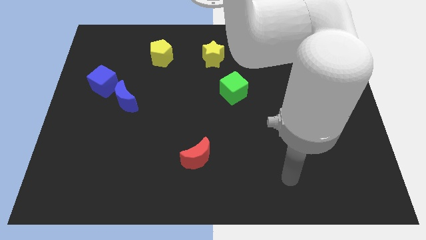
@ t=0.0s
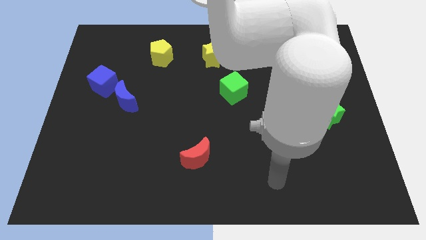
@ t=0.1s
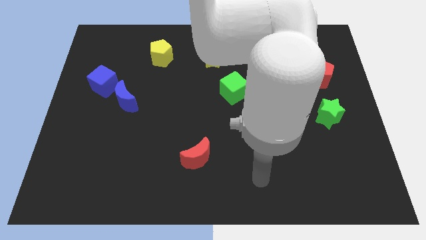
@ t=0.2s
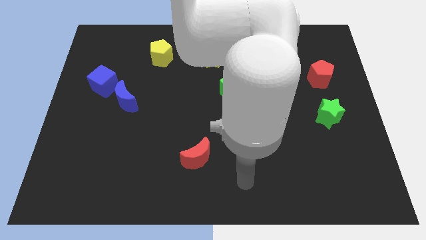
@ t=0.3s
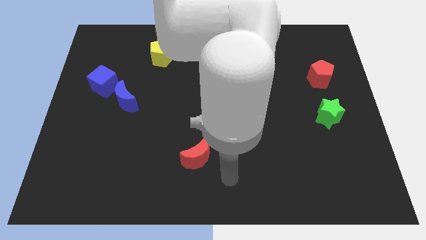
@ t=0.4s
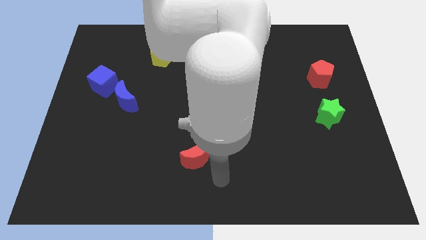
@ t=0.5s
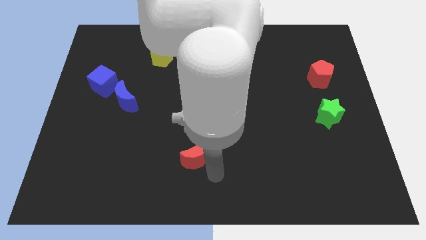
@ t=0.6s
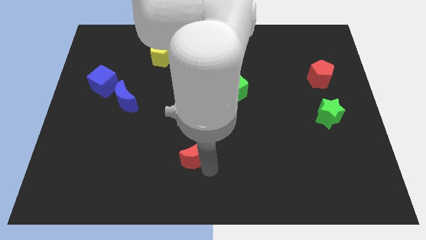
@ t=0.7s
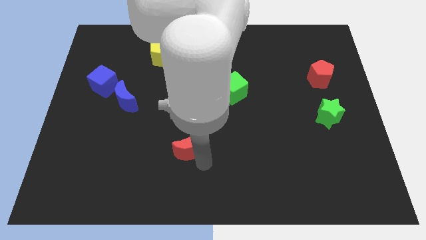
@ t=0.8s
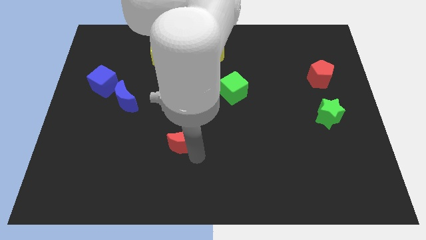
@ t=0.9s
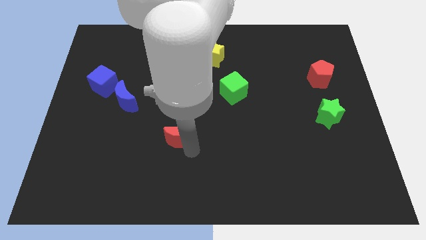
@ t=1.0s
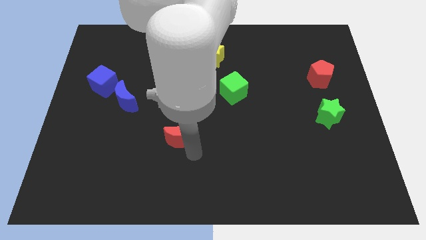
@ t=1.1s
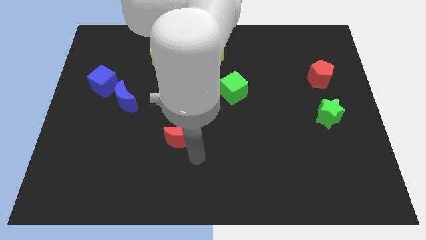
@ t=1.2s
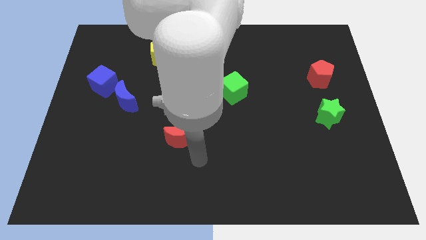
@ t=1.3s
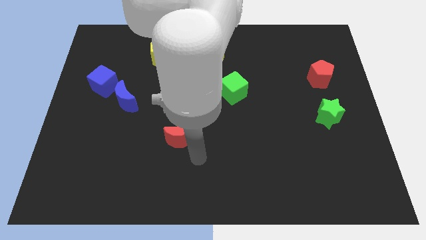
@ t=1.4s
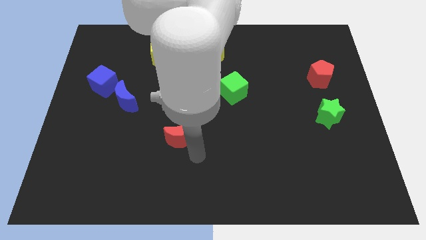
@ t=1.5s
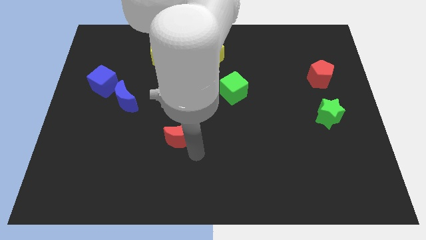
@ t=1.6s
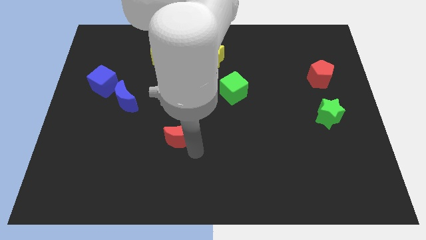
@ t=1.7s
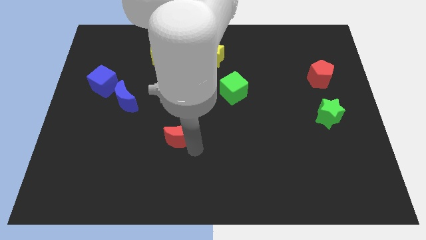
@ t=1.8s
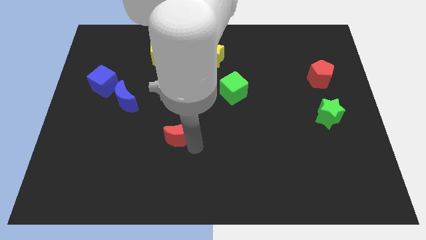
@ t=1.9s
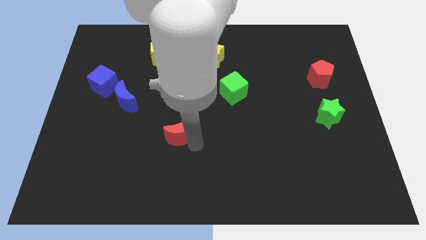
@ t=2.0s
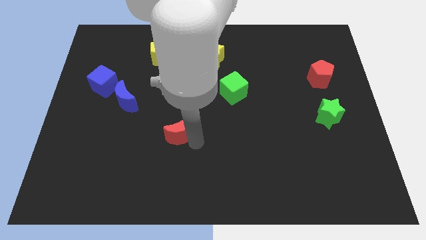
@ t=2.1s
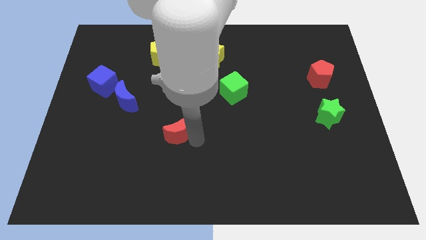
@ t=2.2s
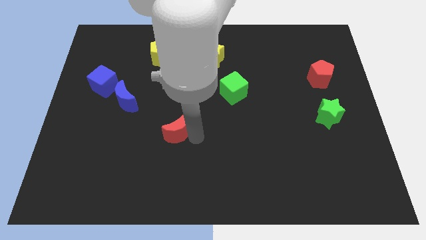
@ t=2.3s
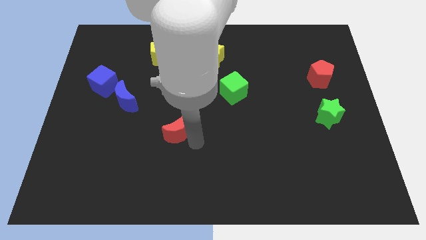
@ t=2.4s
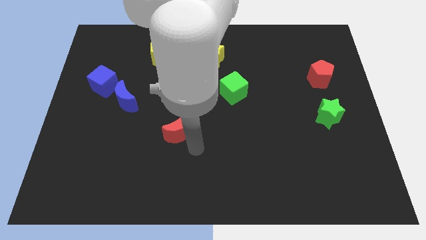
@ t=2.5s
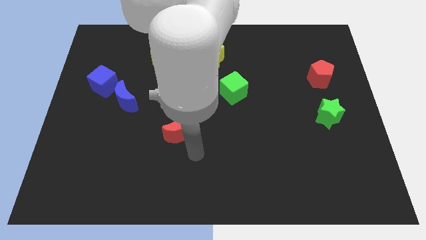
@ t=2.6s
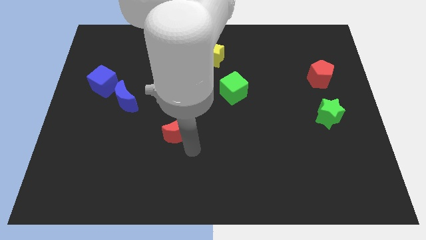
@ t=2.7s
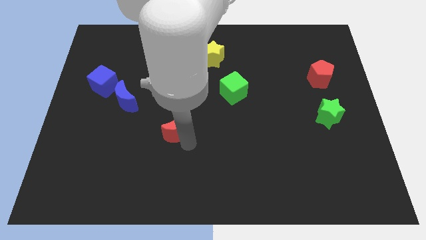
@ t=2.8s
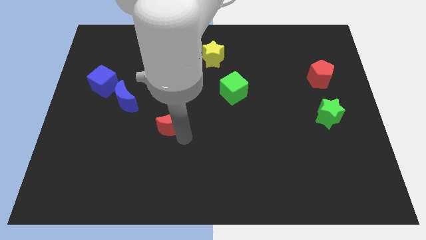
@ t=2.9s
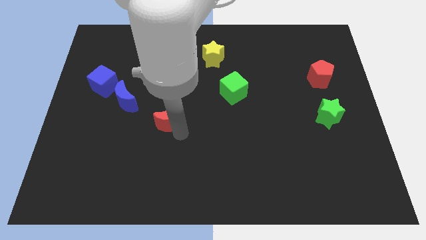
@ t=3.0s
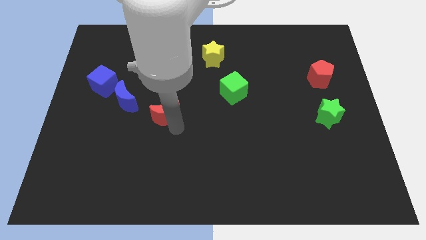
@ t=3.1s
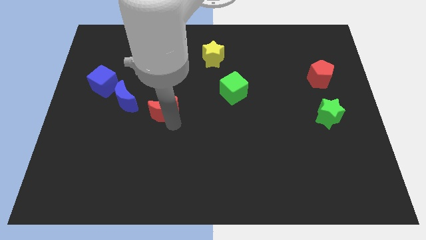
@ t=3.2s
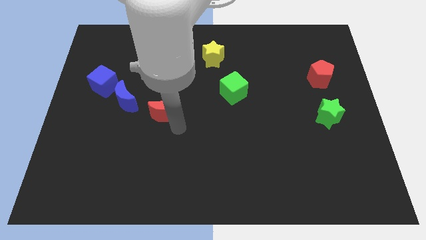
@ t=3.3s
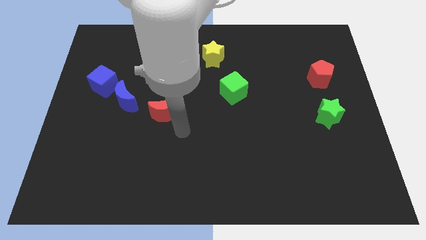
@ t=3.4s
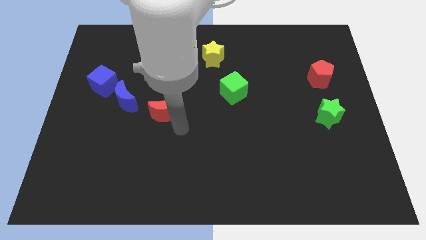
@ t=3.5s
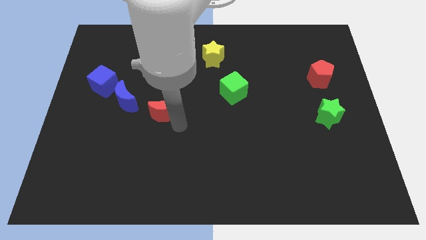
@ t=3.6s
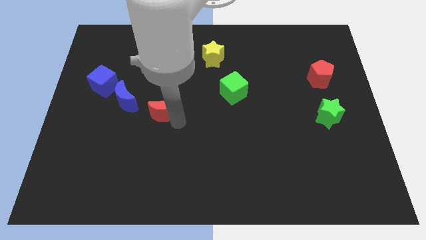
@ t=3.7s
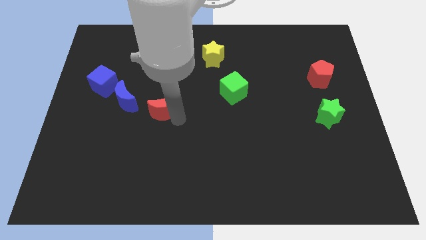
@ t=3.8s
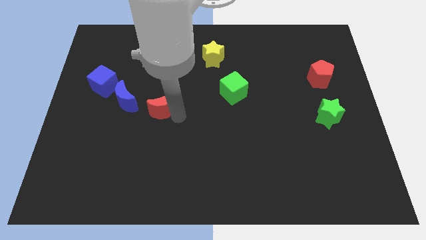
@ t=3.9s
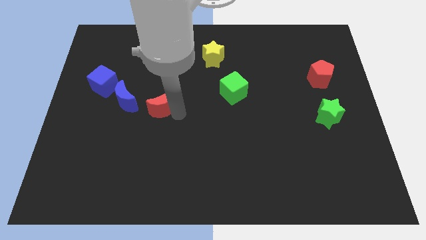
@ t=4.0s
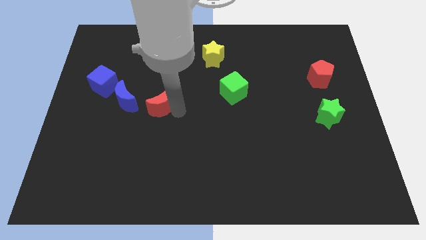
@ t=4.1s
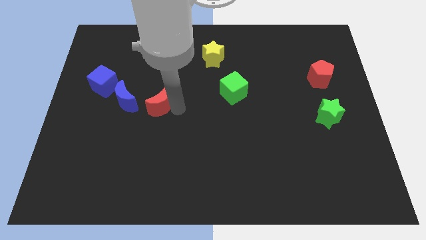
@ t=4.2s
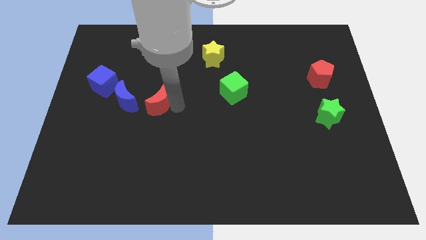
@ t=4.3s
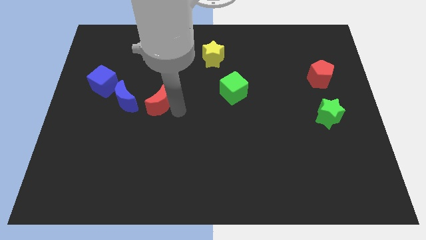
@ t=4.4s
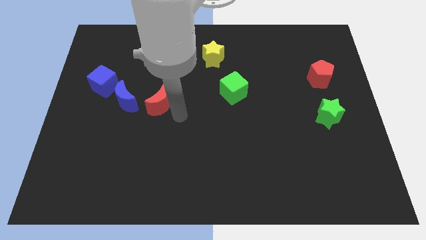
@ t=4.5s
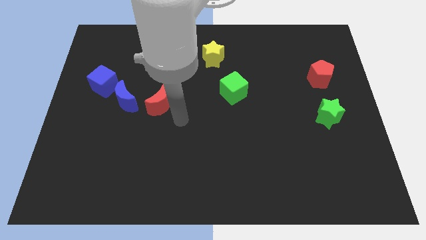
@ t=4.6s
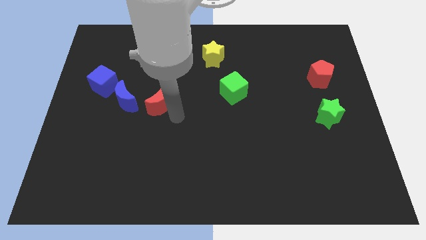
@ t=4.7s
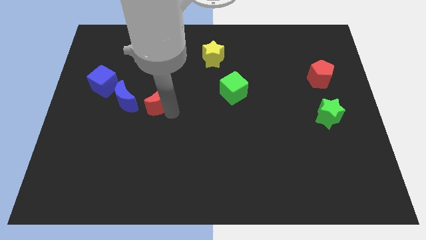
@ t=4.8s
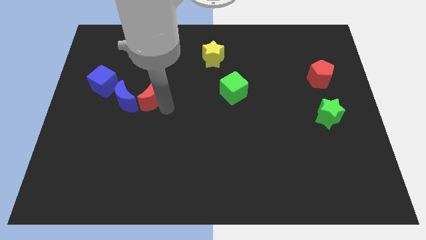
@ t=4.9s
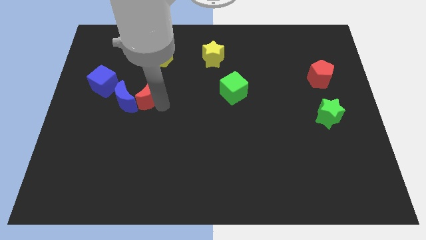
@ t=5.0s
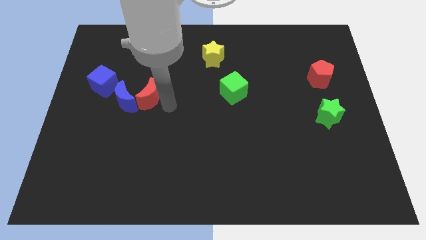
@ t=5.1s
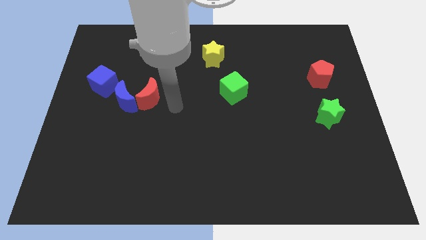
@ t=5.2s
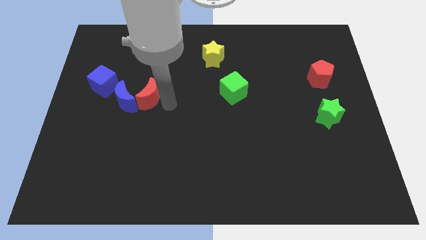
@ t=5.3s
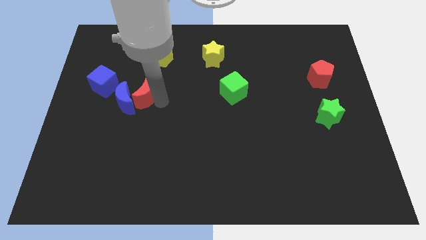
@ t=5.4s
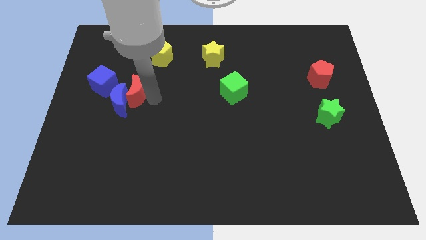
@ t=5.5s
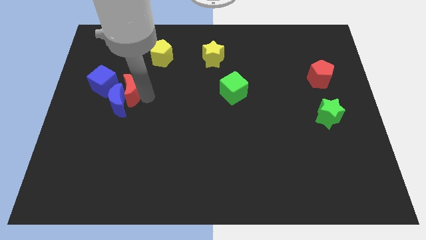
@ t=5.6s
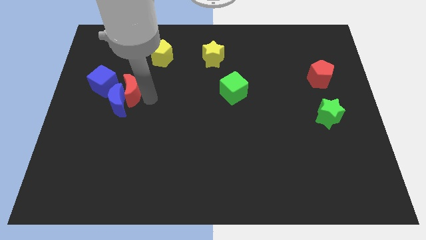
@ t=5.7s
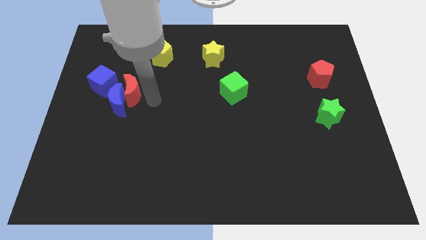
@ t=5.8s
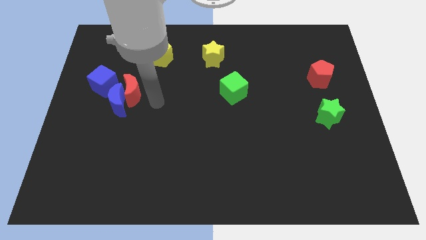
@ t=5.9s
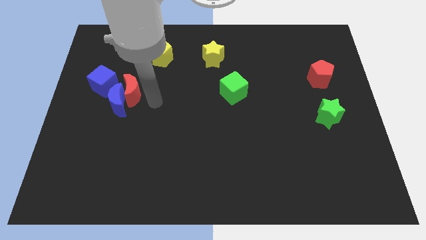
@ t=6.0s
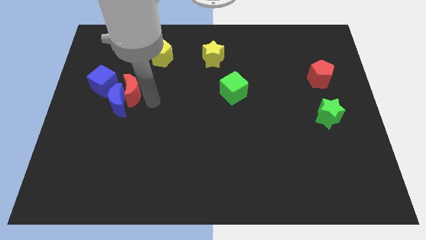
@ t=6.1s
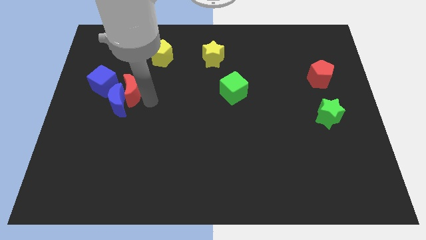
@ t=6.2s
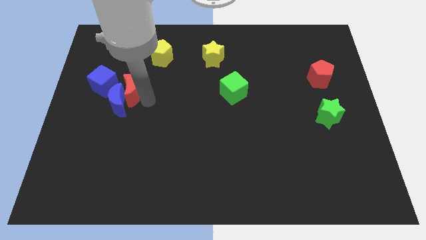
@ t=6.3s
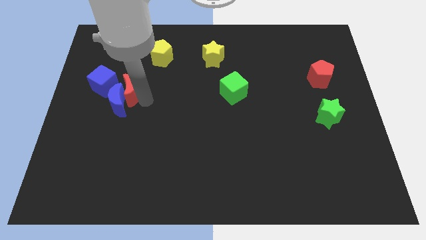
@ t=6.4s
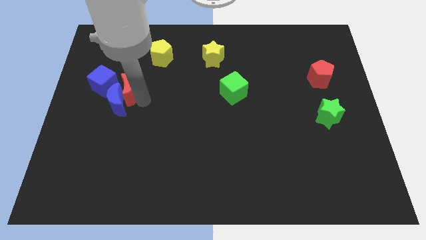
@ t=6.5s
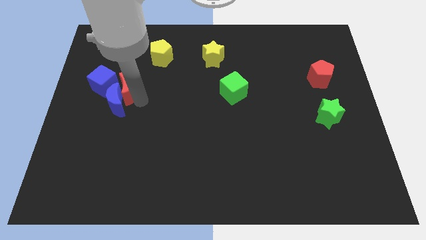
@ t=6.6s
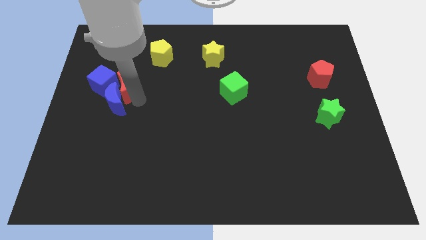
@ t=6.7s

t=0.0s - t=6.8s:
move the red moon towards the blue cube

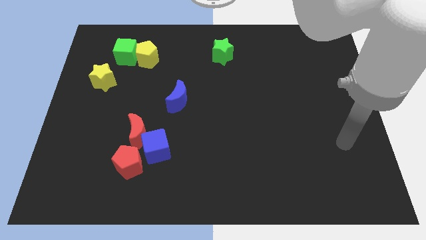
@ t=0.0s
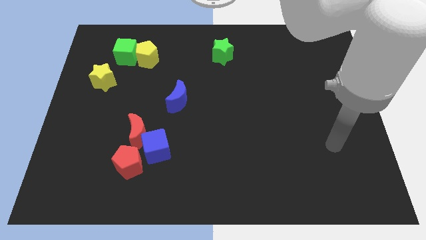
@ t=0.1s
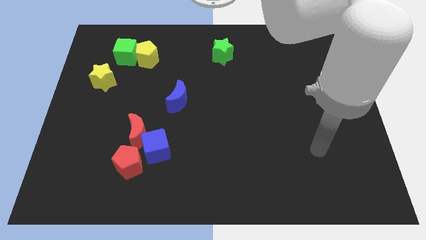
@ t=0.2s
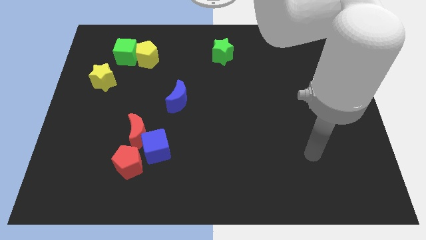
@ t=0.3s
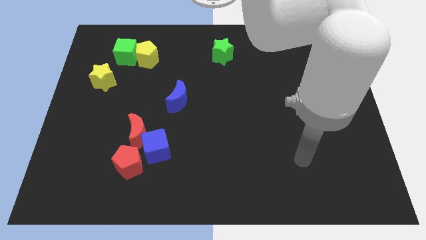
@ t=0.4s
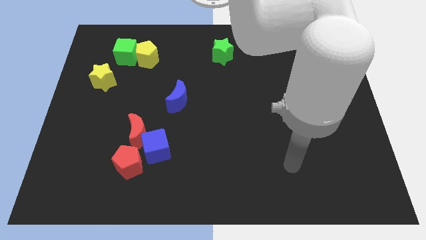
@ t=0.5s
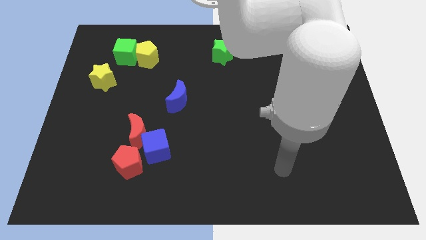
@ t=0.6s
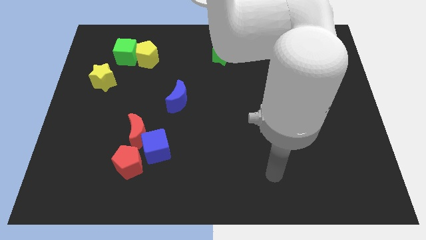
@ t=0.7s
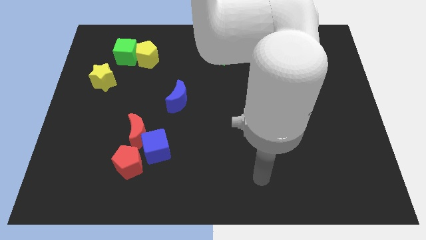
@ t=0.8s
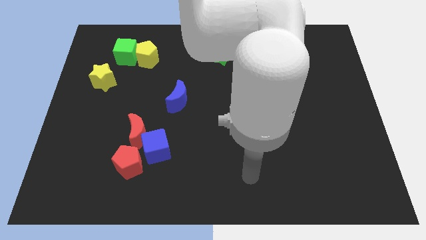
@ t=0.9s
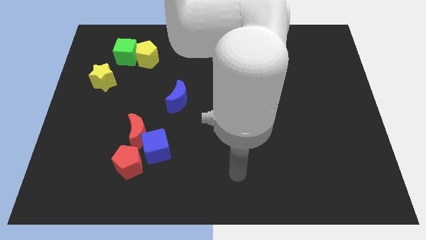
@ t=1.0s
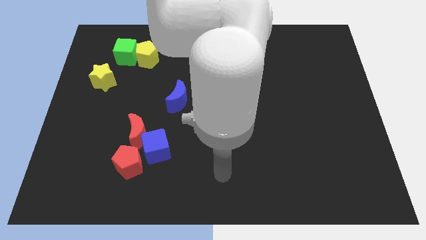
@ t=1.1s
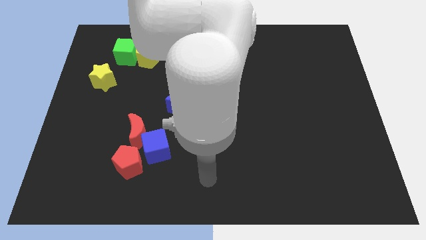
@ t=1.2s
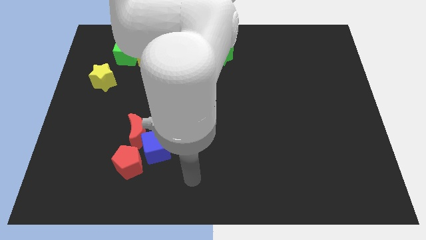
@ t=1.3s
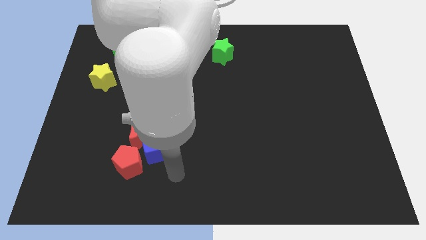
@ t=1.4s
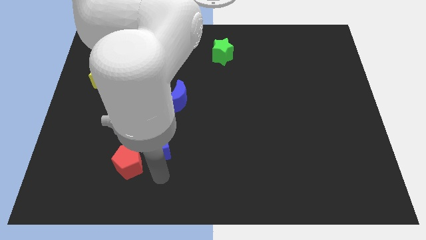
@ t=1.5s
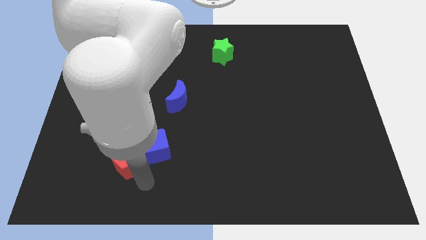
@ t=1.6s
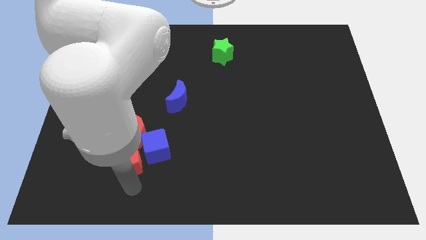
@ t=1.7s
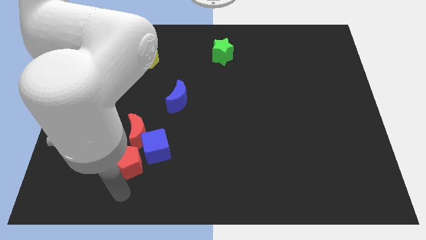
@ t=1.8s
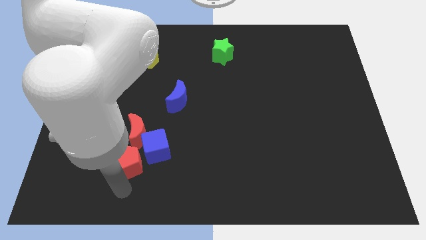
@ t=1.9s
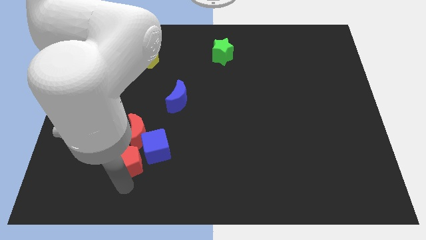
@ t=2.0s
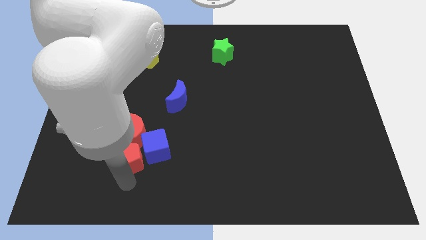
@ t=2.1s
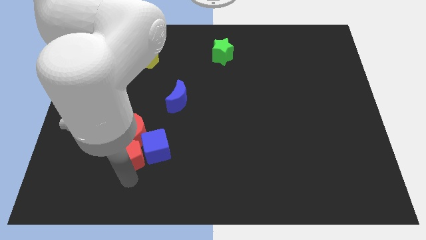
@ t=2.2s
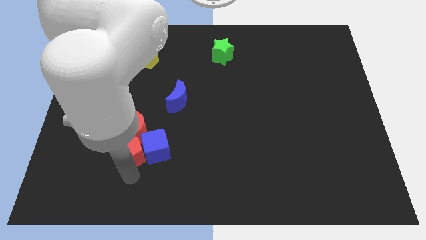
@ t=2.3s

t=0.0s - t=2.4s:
move the red pentagon towards the red moon
